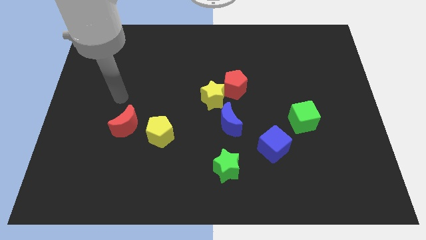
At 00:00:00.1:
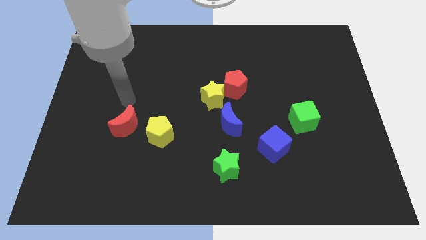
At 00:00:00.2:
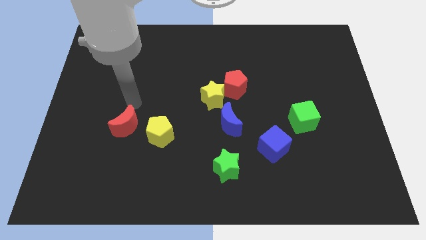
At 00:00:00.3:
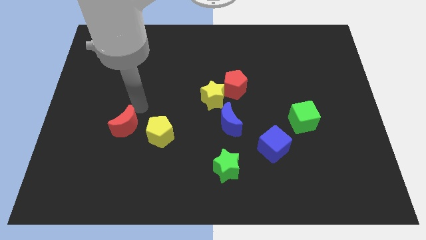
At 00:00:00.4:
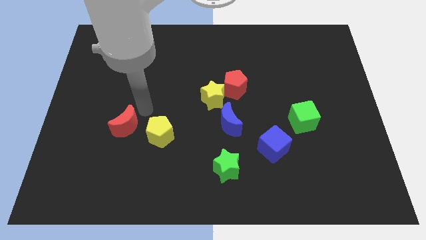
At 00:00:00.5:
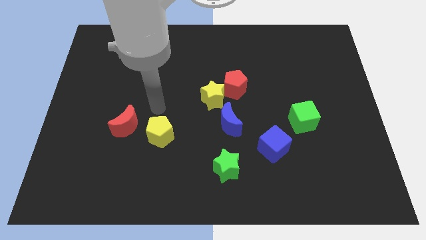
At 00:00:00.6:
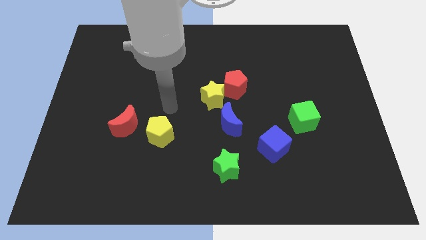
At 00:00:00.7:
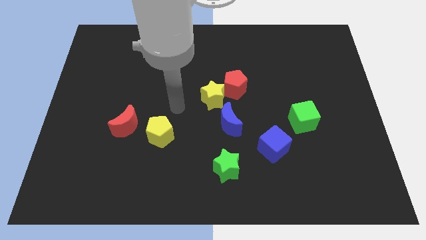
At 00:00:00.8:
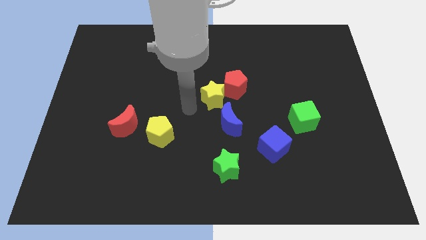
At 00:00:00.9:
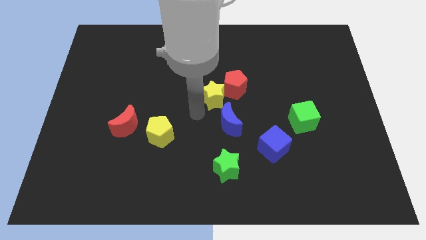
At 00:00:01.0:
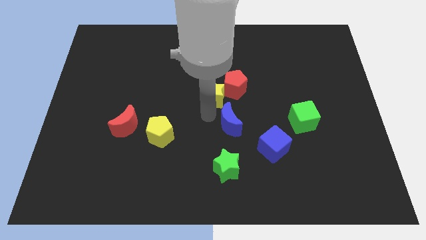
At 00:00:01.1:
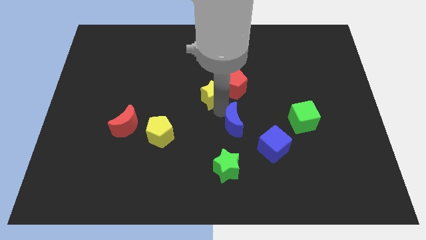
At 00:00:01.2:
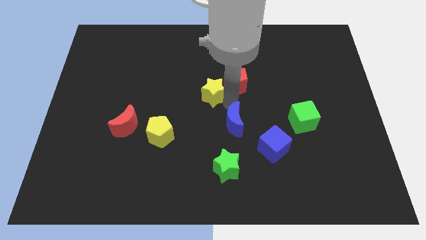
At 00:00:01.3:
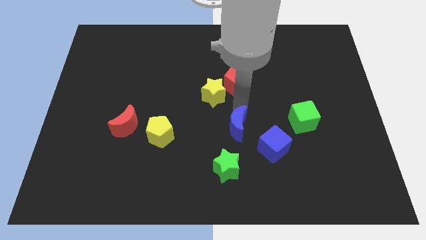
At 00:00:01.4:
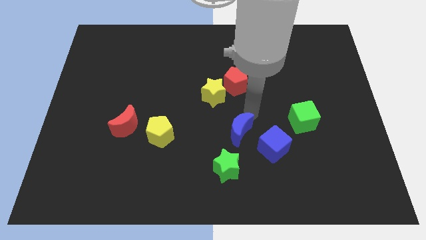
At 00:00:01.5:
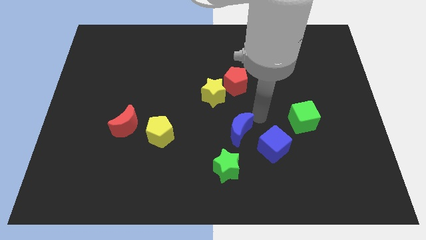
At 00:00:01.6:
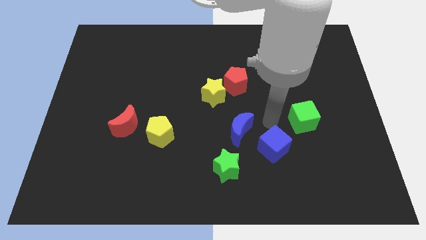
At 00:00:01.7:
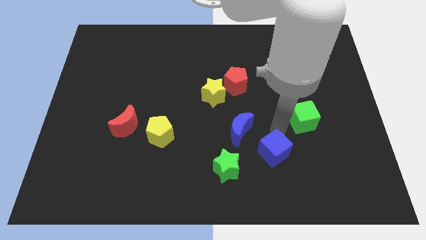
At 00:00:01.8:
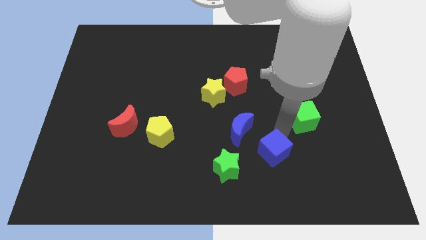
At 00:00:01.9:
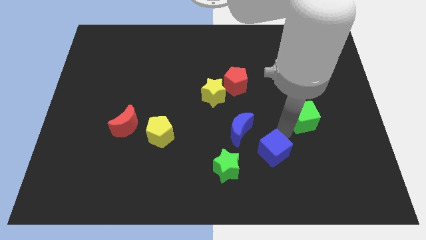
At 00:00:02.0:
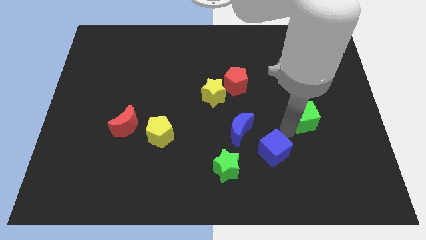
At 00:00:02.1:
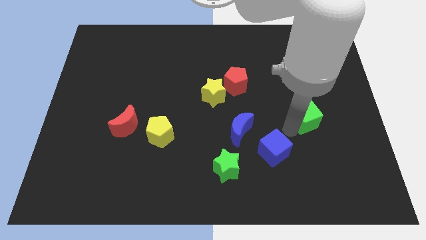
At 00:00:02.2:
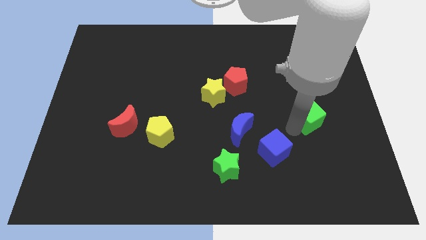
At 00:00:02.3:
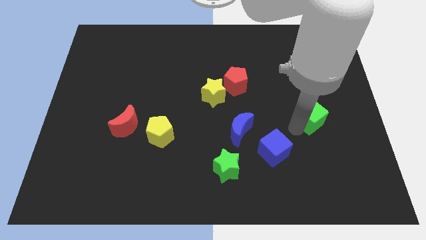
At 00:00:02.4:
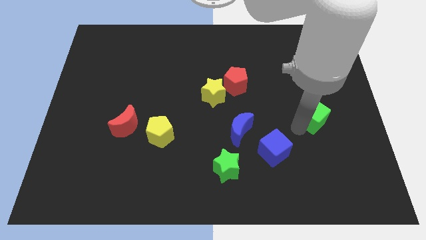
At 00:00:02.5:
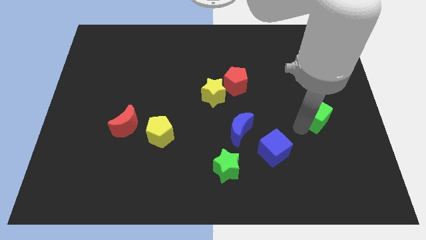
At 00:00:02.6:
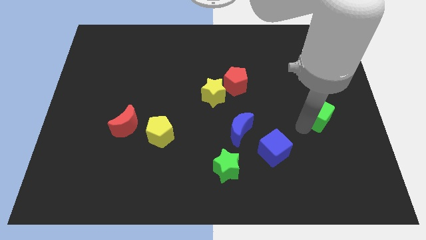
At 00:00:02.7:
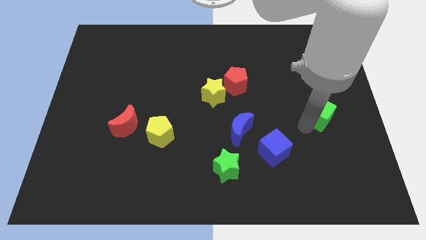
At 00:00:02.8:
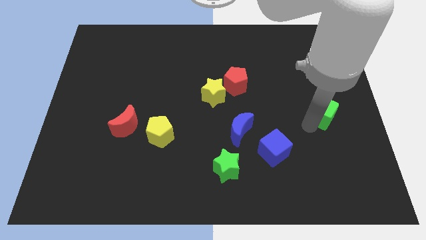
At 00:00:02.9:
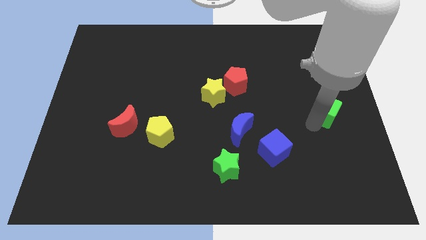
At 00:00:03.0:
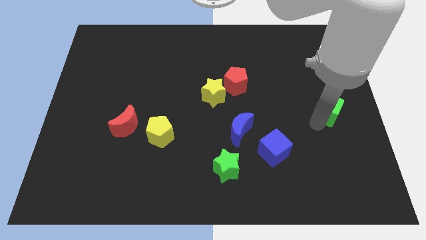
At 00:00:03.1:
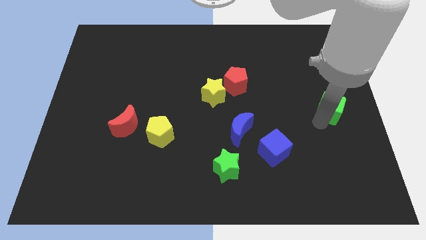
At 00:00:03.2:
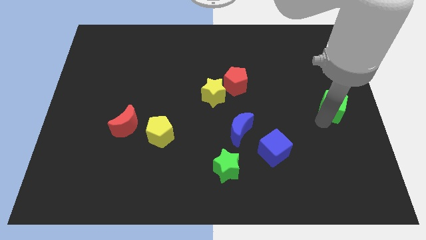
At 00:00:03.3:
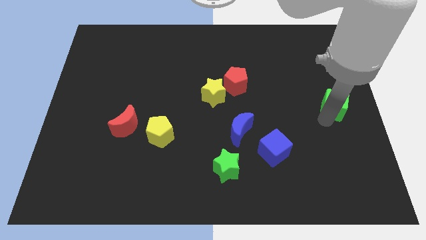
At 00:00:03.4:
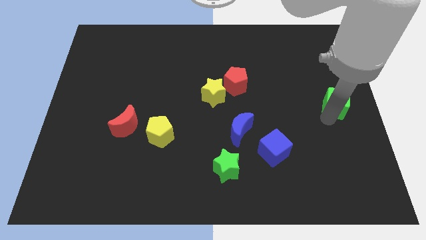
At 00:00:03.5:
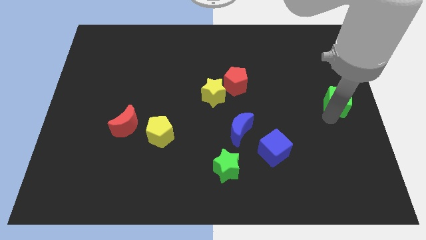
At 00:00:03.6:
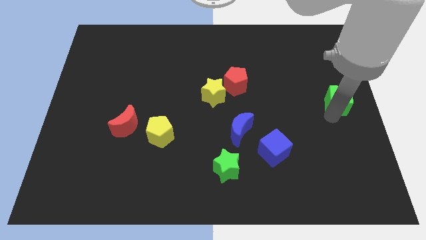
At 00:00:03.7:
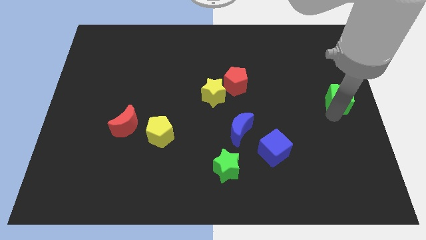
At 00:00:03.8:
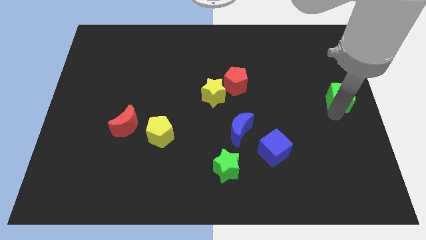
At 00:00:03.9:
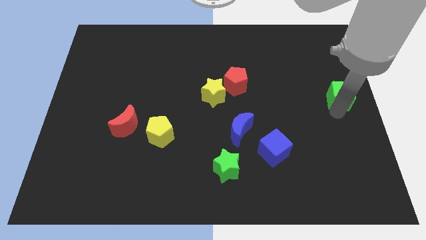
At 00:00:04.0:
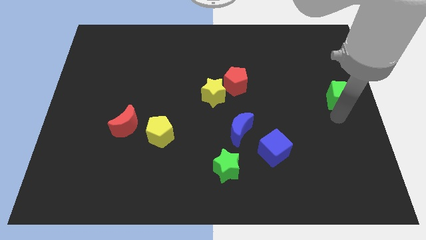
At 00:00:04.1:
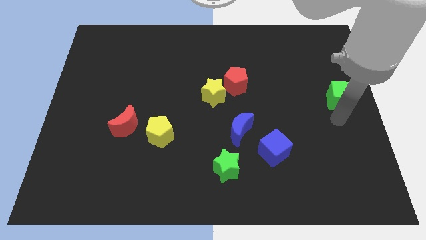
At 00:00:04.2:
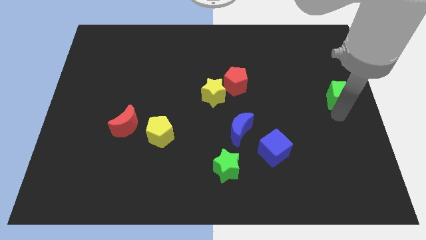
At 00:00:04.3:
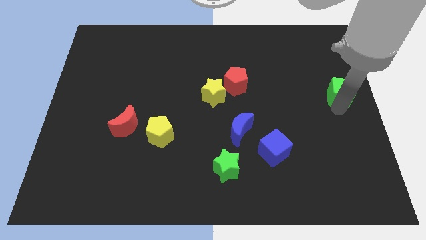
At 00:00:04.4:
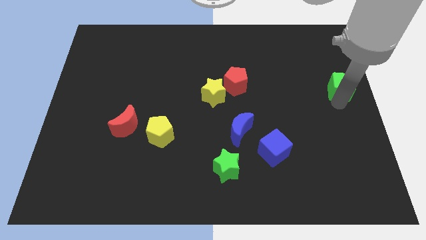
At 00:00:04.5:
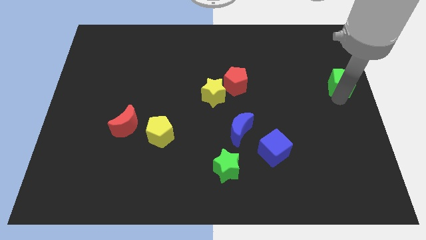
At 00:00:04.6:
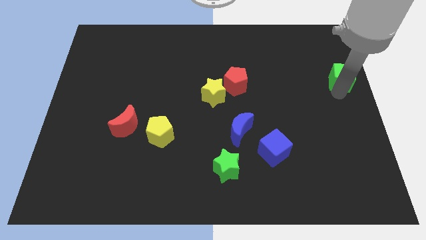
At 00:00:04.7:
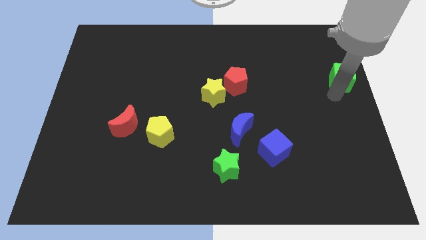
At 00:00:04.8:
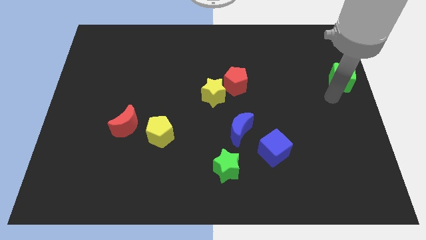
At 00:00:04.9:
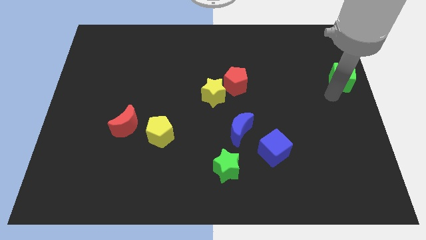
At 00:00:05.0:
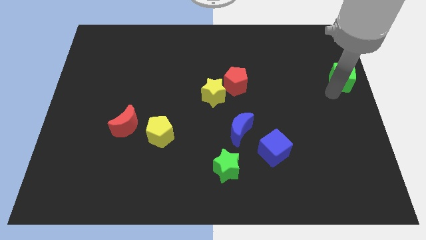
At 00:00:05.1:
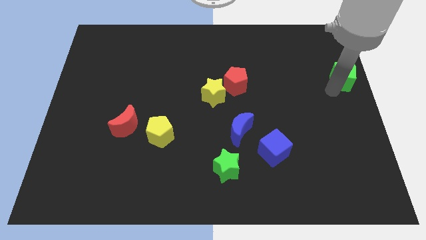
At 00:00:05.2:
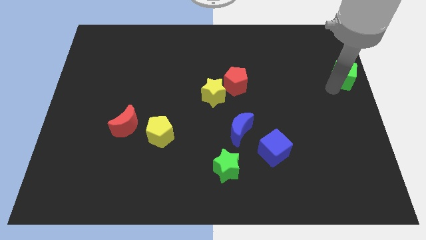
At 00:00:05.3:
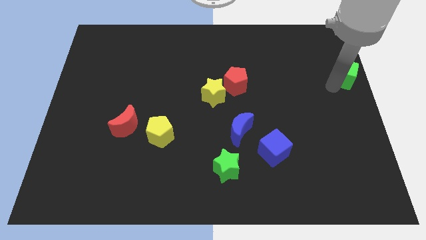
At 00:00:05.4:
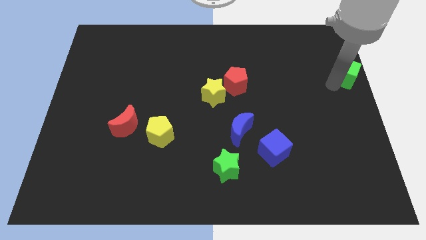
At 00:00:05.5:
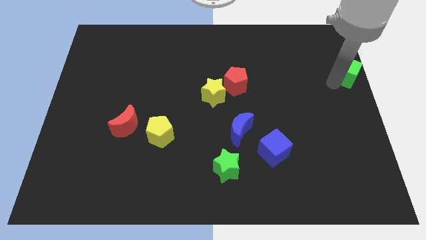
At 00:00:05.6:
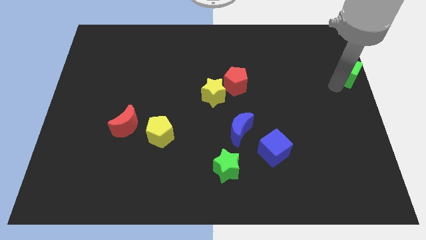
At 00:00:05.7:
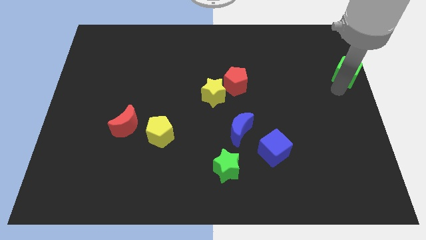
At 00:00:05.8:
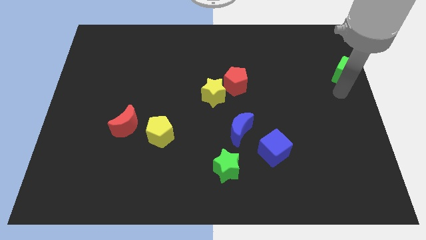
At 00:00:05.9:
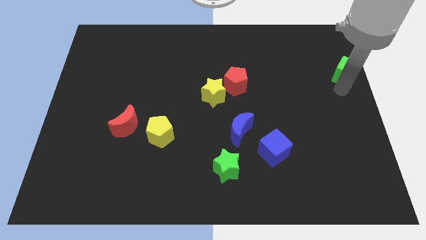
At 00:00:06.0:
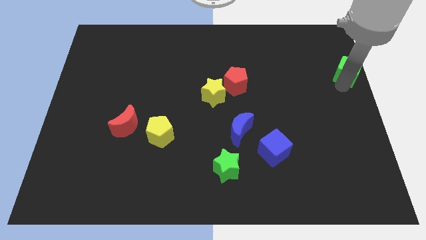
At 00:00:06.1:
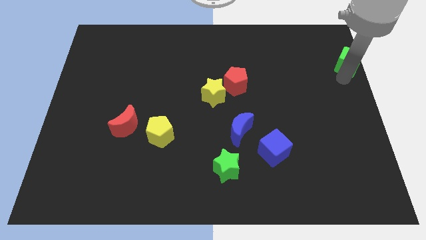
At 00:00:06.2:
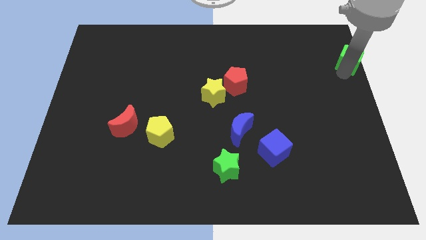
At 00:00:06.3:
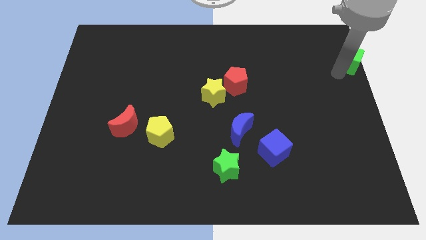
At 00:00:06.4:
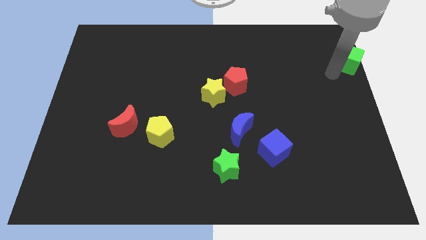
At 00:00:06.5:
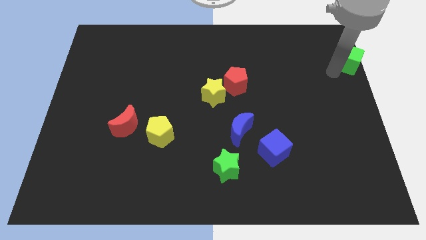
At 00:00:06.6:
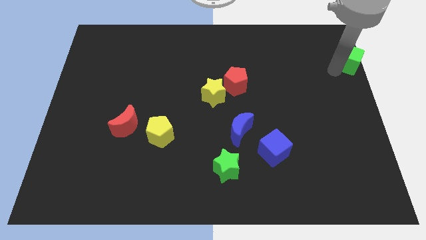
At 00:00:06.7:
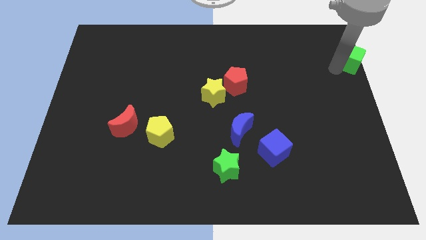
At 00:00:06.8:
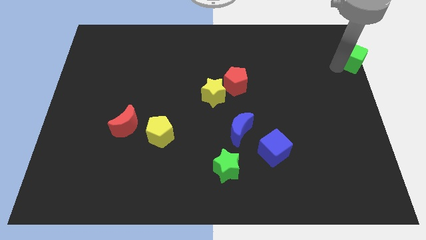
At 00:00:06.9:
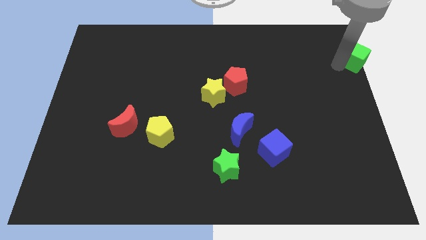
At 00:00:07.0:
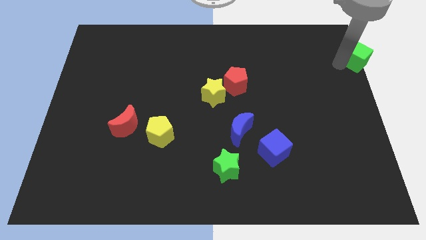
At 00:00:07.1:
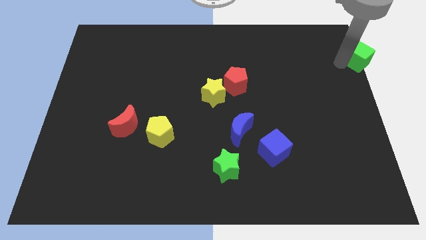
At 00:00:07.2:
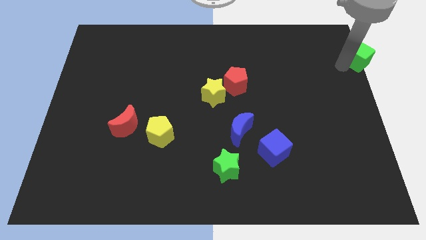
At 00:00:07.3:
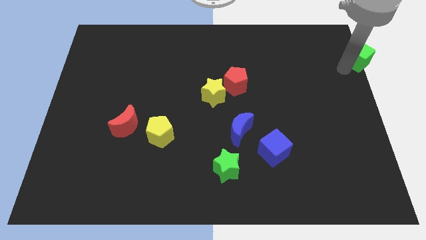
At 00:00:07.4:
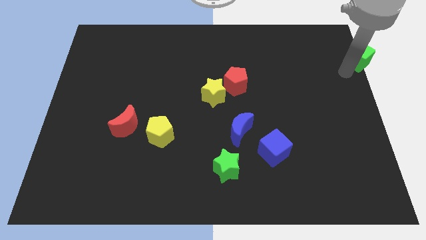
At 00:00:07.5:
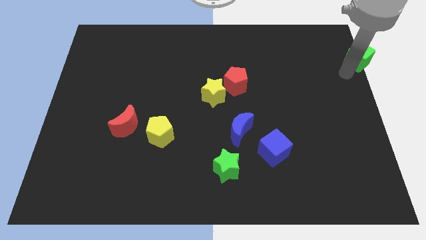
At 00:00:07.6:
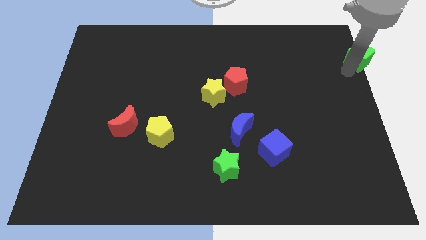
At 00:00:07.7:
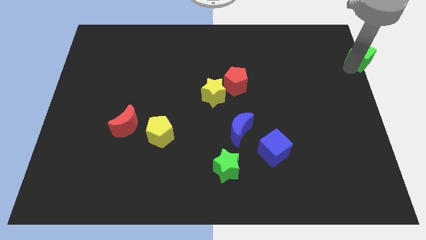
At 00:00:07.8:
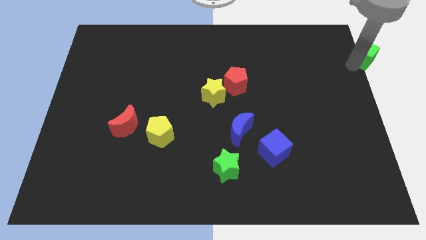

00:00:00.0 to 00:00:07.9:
move the green cube to the top right of the board
